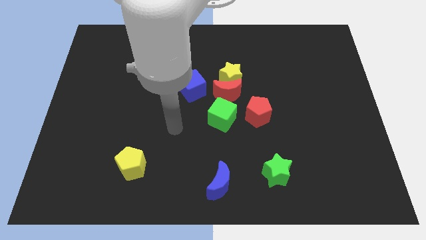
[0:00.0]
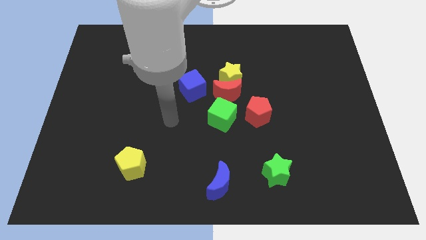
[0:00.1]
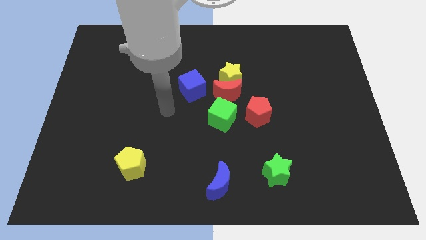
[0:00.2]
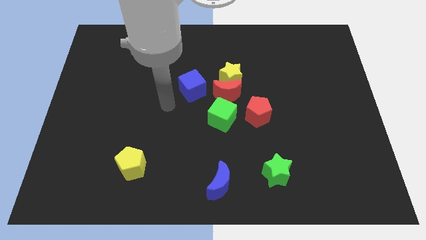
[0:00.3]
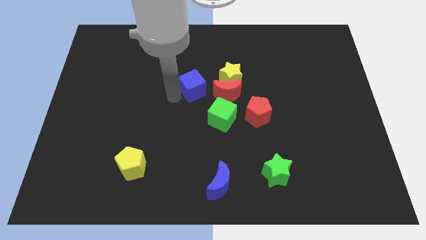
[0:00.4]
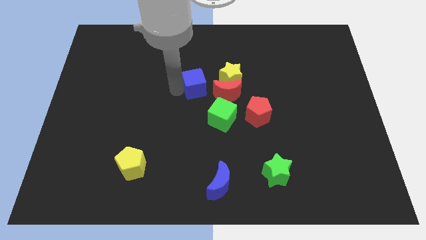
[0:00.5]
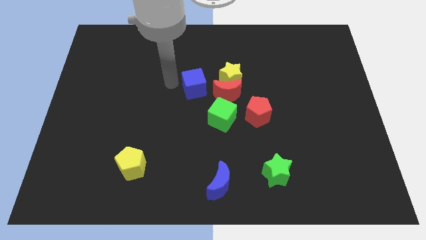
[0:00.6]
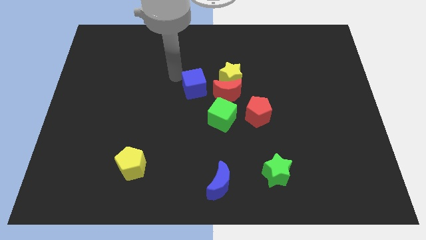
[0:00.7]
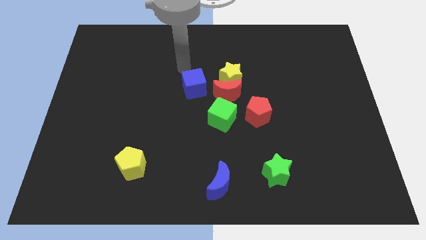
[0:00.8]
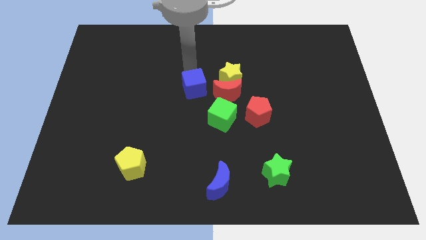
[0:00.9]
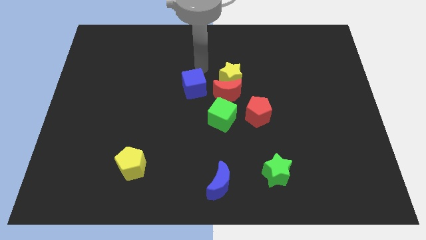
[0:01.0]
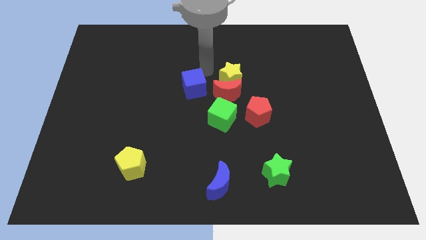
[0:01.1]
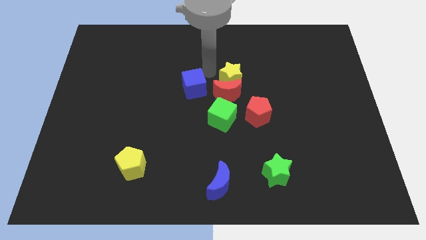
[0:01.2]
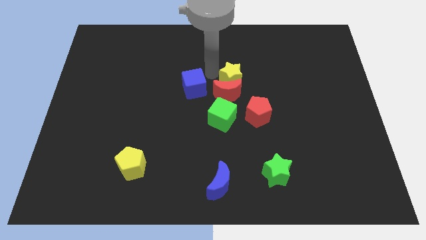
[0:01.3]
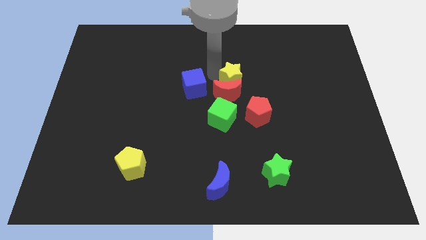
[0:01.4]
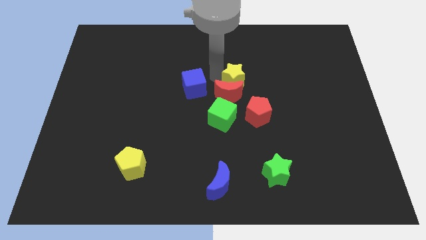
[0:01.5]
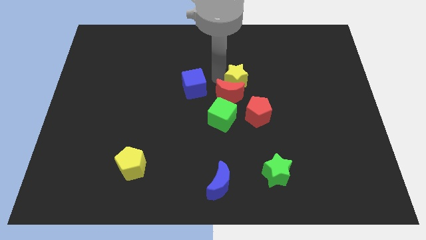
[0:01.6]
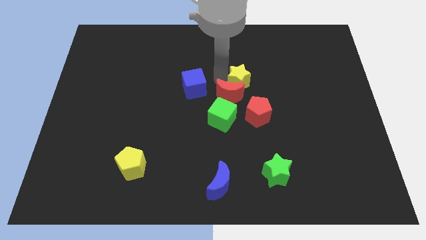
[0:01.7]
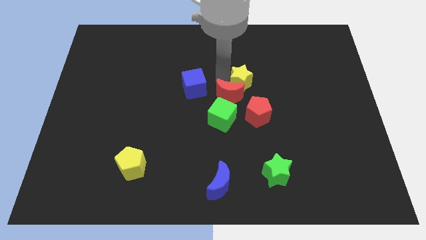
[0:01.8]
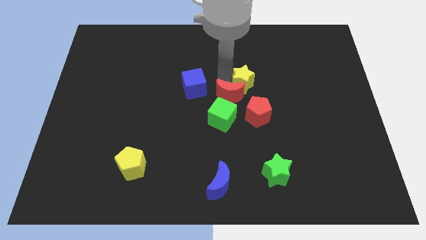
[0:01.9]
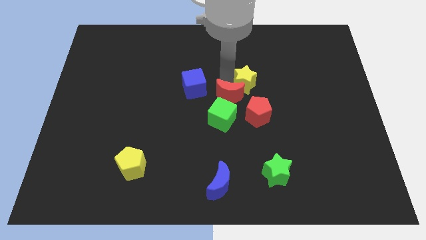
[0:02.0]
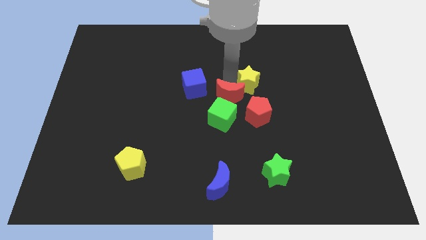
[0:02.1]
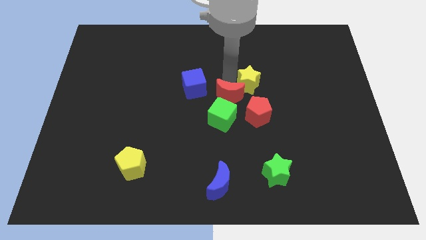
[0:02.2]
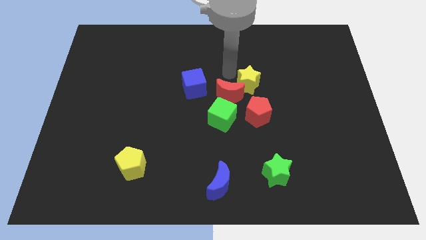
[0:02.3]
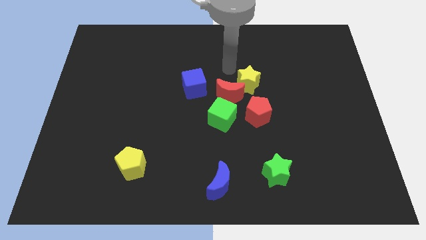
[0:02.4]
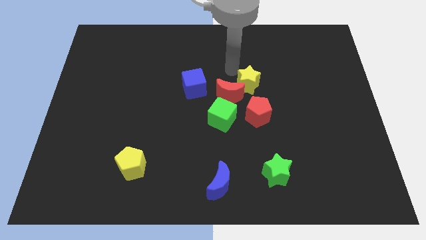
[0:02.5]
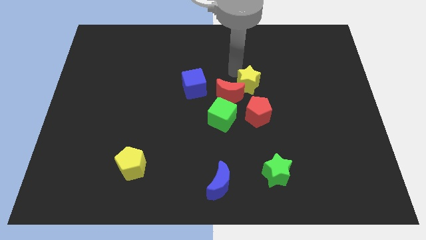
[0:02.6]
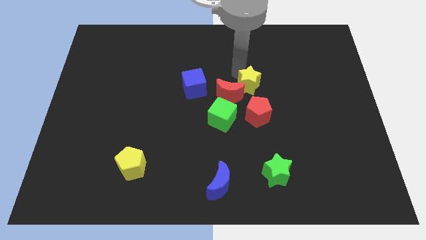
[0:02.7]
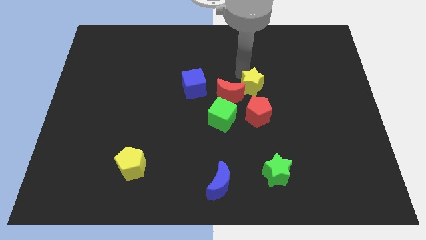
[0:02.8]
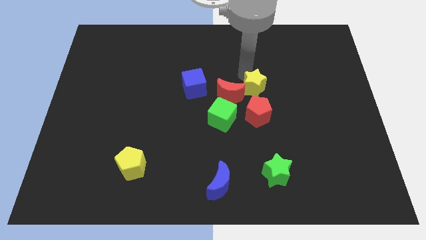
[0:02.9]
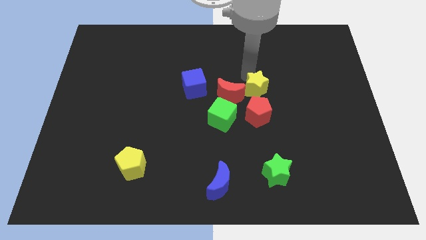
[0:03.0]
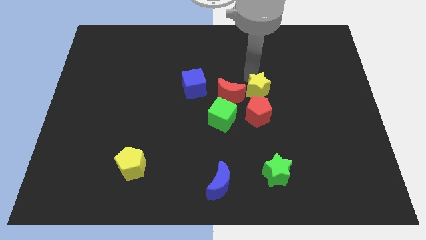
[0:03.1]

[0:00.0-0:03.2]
slightly push the yellow star downwards and to the right diagonally

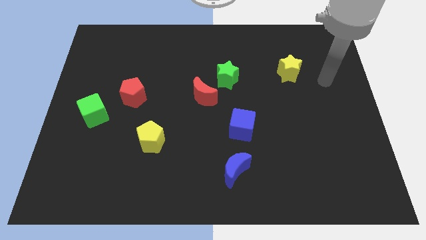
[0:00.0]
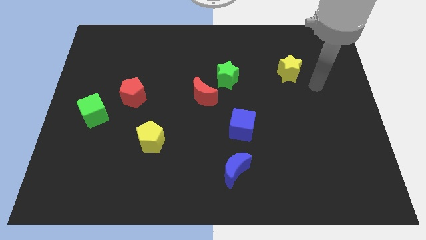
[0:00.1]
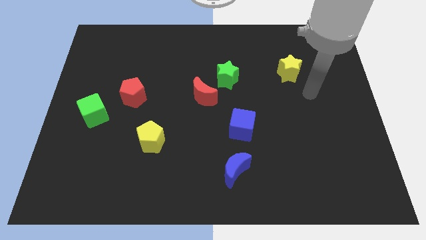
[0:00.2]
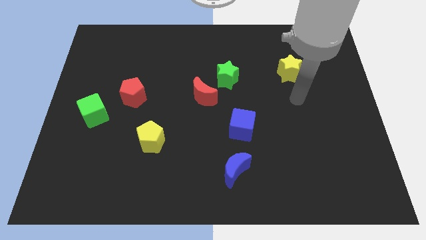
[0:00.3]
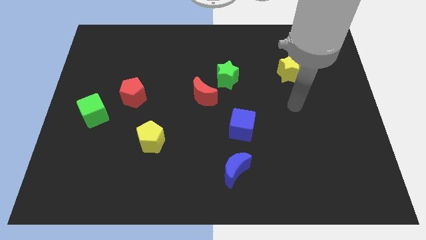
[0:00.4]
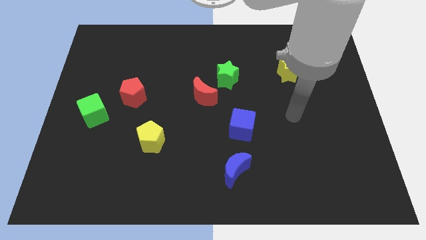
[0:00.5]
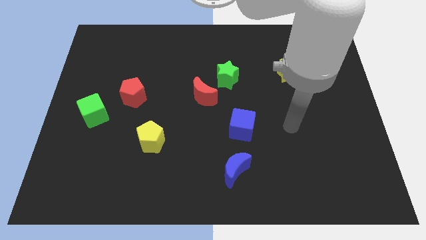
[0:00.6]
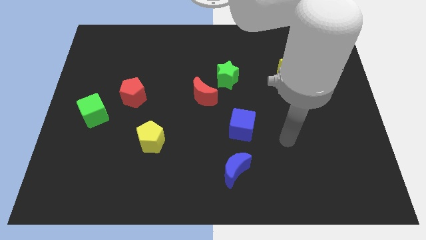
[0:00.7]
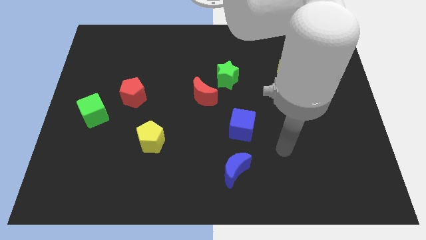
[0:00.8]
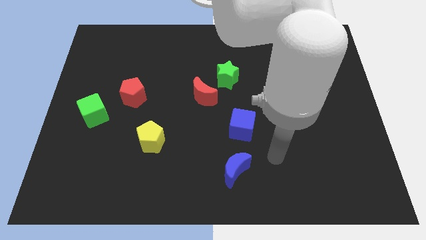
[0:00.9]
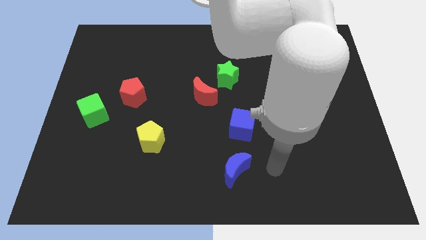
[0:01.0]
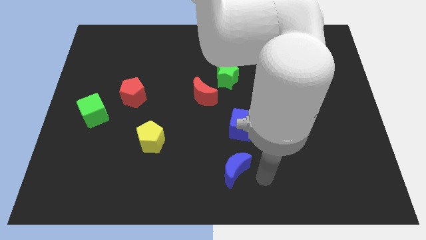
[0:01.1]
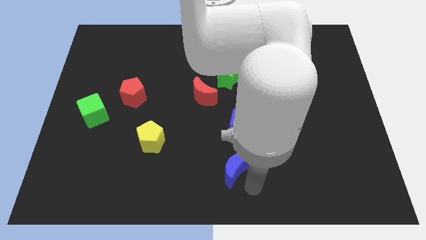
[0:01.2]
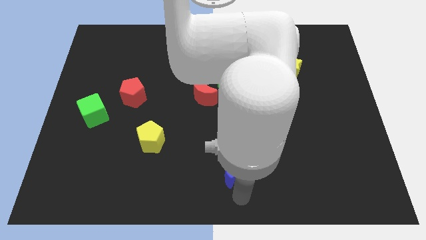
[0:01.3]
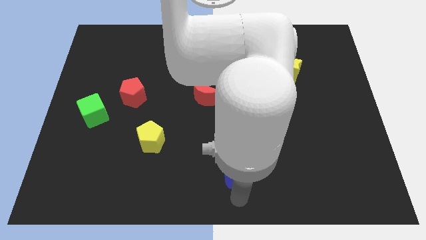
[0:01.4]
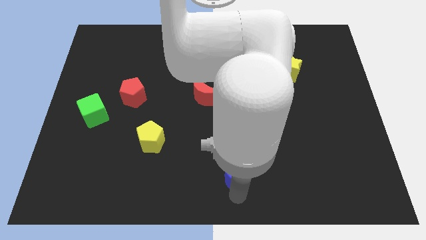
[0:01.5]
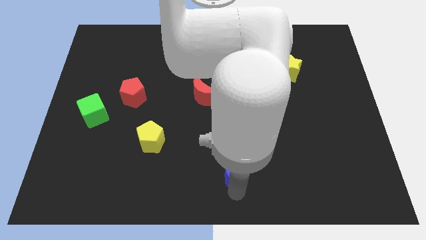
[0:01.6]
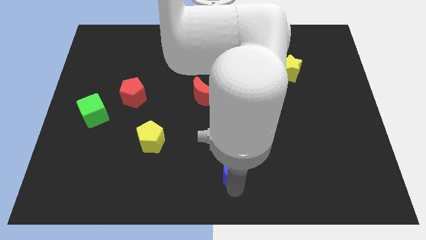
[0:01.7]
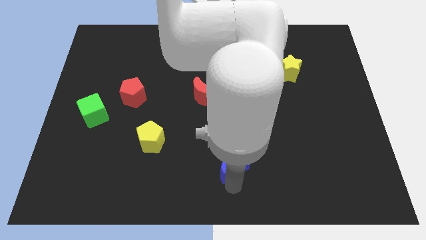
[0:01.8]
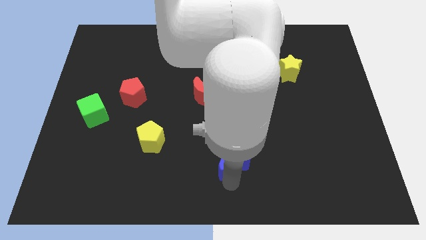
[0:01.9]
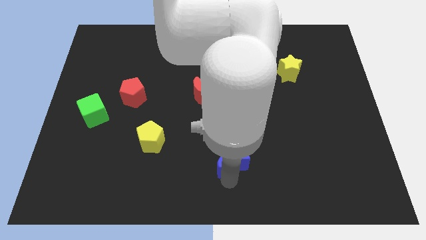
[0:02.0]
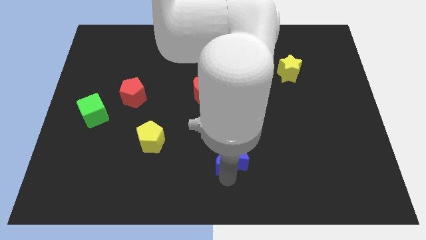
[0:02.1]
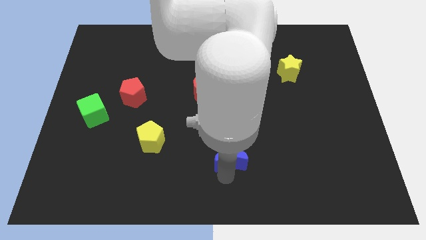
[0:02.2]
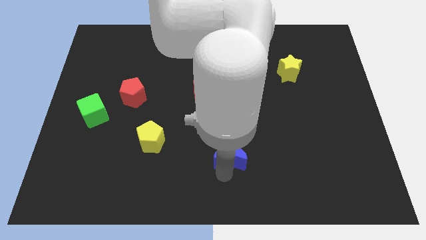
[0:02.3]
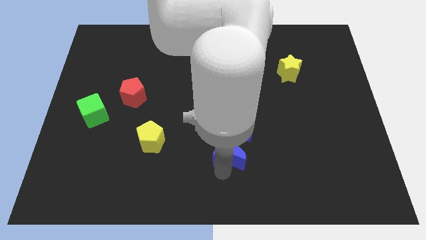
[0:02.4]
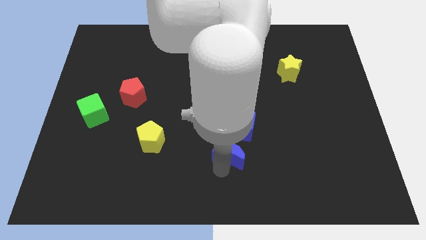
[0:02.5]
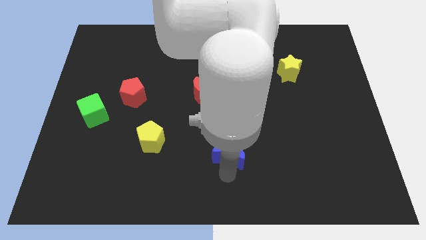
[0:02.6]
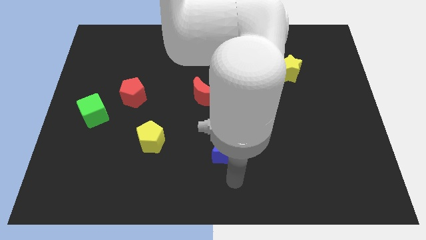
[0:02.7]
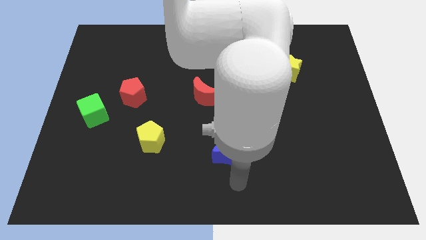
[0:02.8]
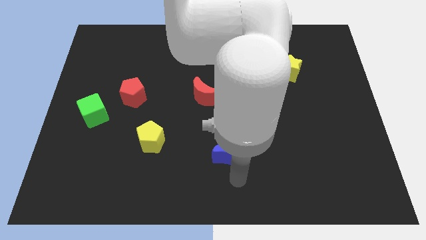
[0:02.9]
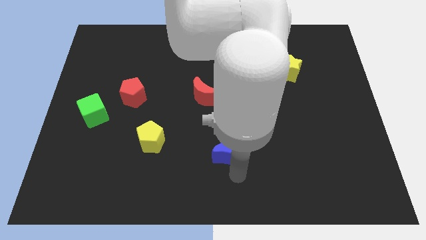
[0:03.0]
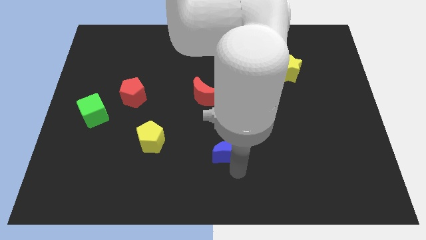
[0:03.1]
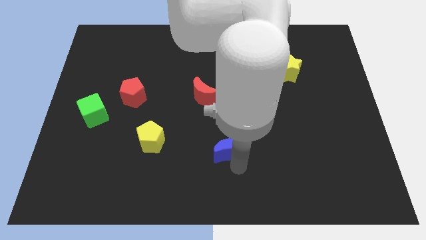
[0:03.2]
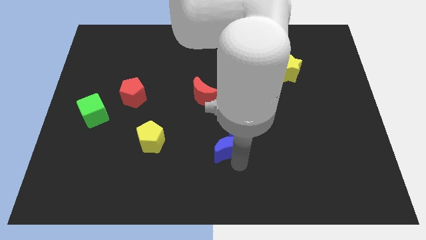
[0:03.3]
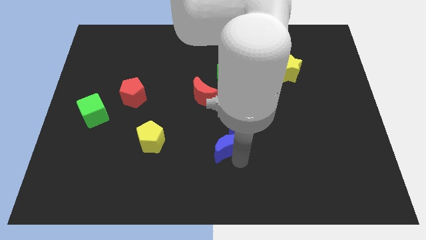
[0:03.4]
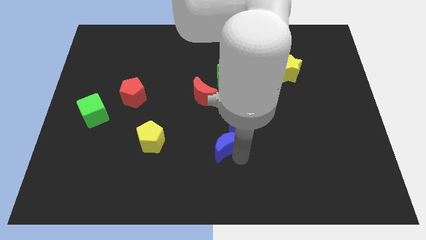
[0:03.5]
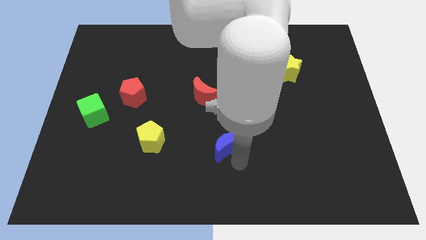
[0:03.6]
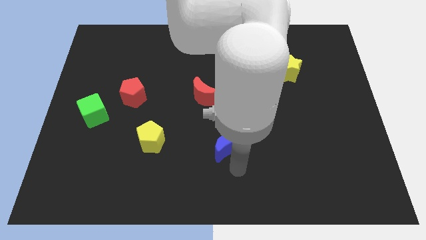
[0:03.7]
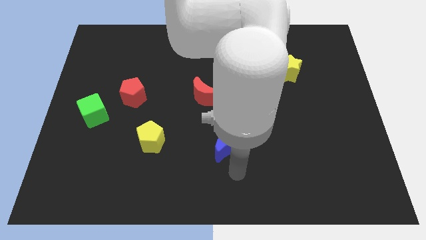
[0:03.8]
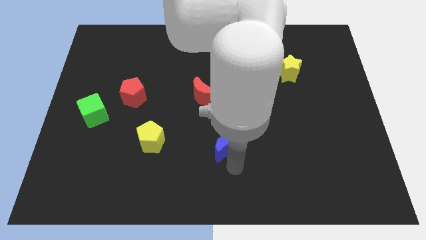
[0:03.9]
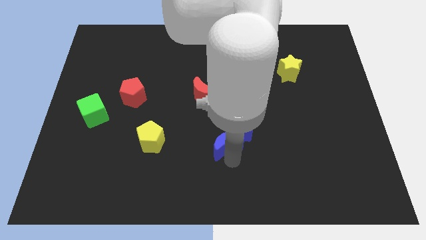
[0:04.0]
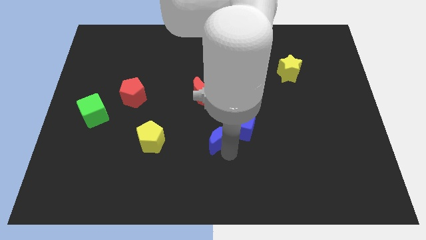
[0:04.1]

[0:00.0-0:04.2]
move the blue moon a little up

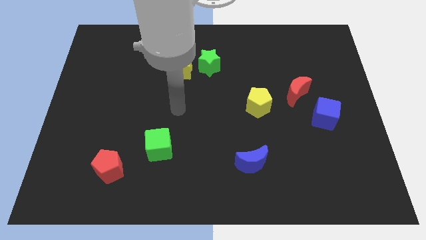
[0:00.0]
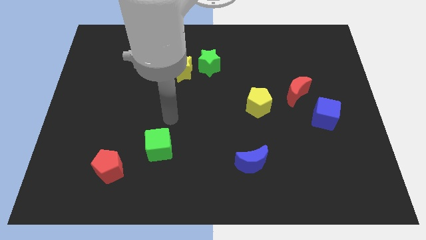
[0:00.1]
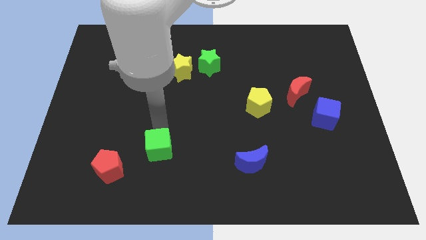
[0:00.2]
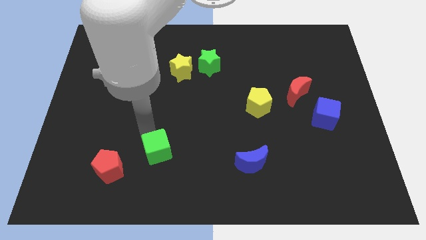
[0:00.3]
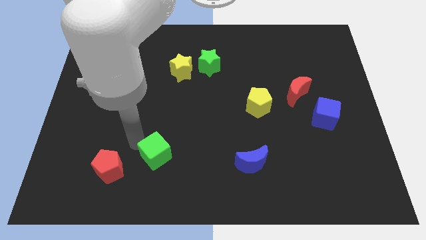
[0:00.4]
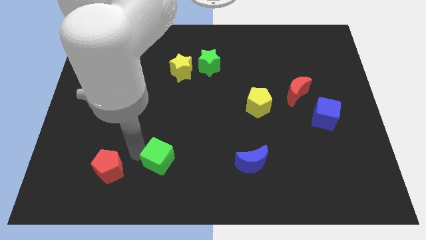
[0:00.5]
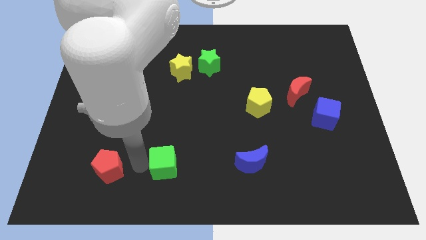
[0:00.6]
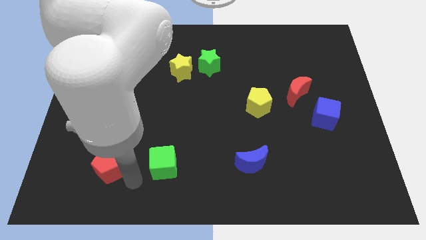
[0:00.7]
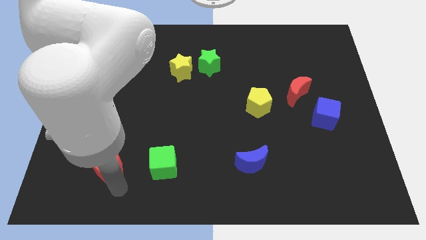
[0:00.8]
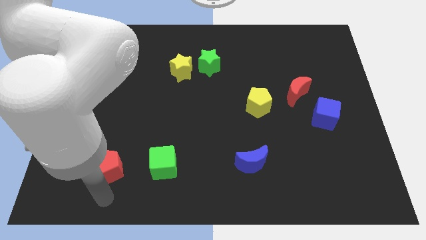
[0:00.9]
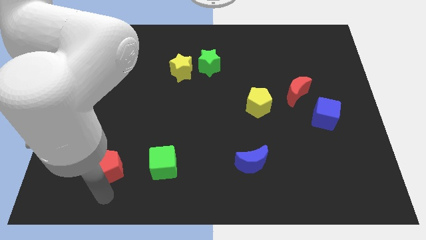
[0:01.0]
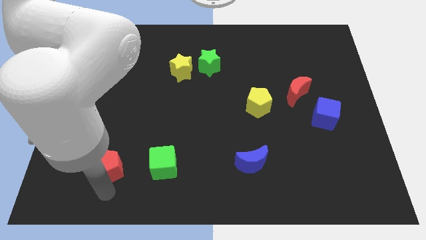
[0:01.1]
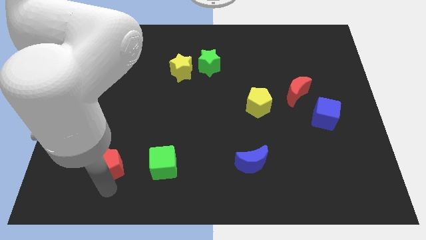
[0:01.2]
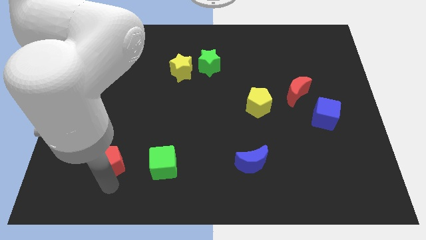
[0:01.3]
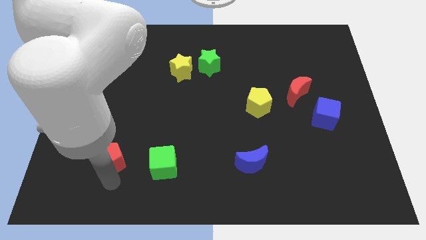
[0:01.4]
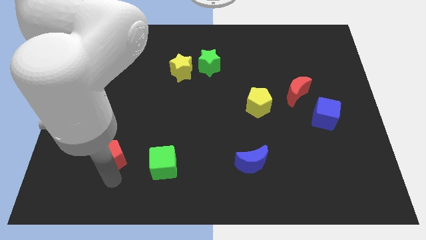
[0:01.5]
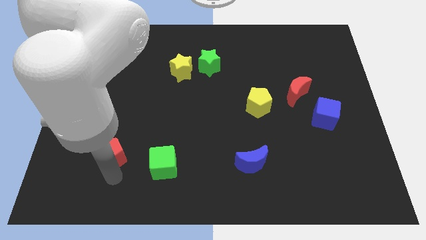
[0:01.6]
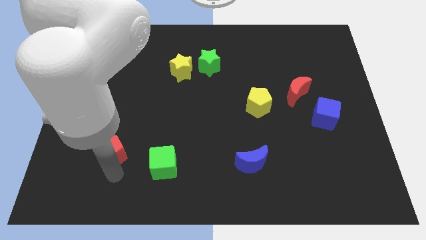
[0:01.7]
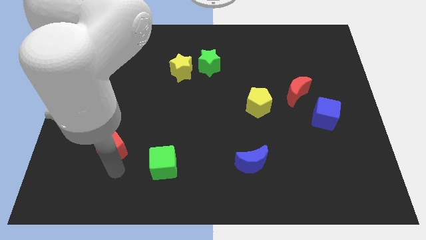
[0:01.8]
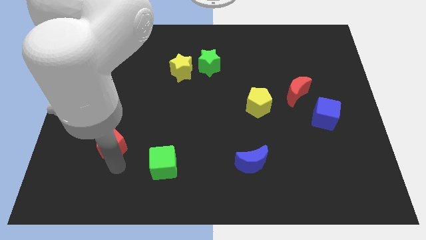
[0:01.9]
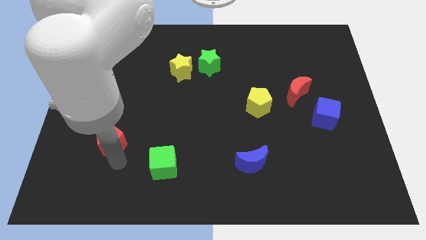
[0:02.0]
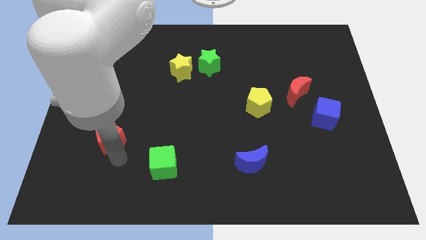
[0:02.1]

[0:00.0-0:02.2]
slightly move the red pentagon upwards
